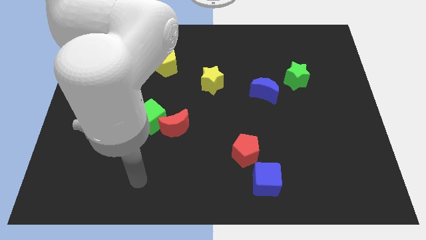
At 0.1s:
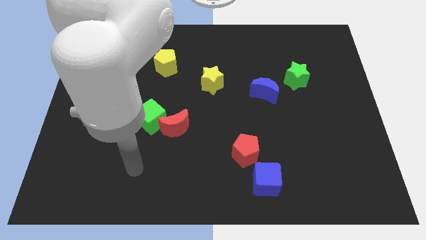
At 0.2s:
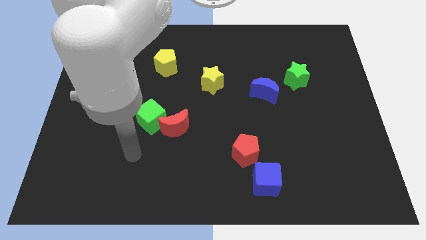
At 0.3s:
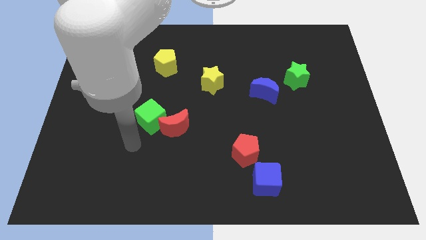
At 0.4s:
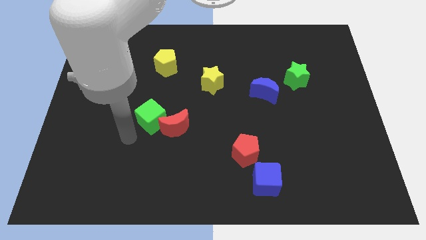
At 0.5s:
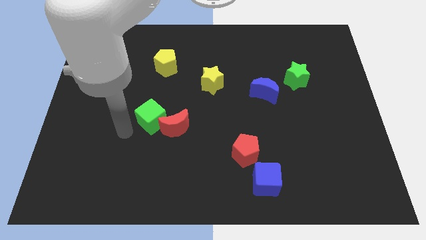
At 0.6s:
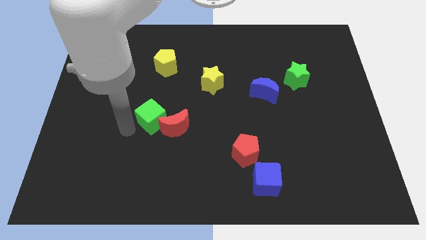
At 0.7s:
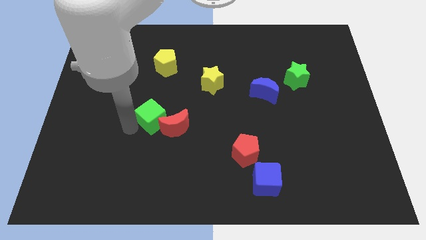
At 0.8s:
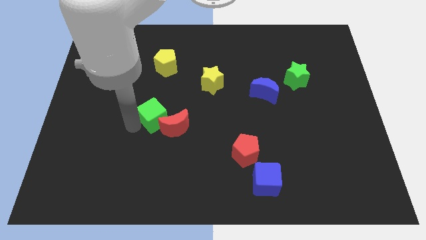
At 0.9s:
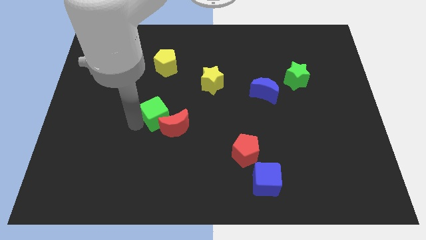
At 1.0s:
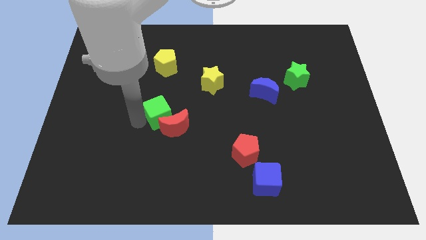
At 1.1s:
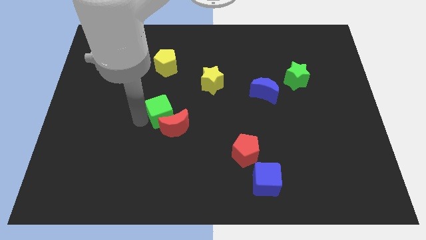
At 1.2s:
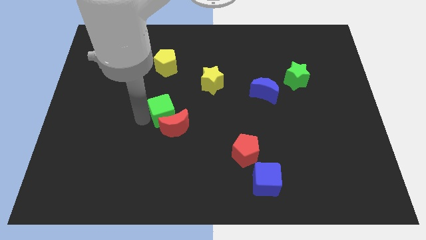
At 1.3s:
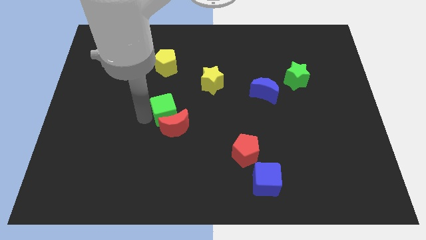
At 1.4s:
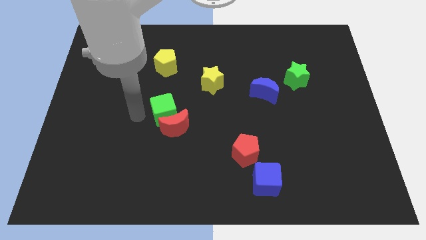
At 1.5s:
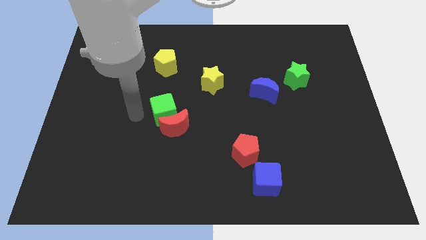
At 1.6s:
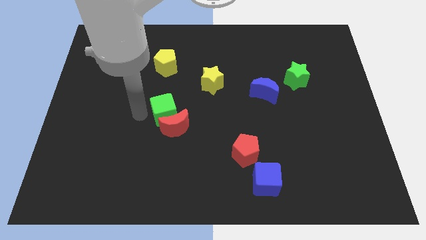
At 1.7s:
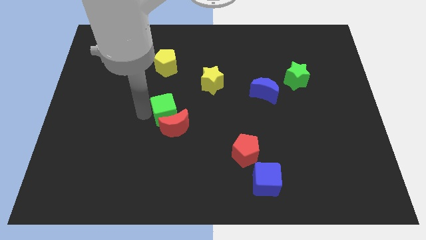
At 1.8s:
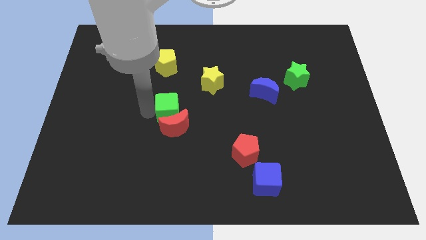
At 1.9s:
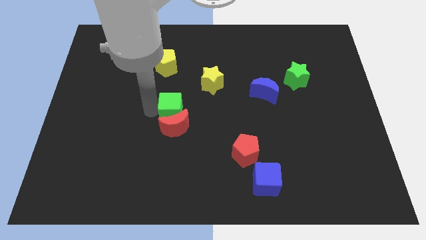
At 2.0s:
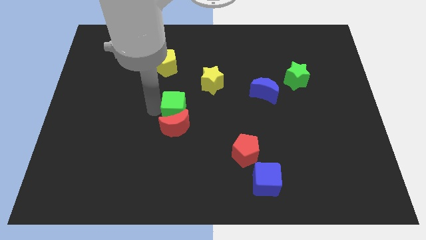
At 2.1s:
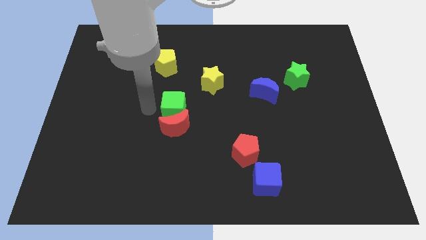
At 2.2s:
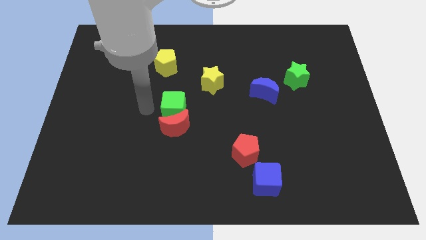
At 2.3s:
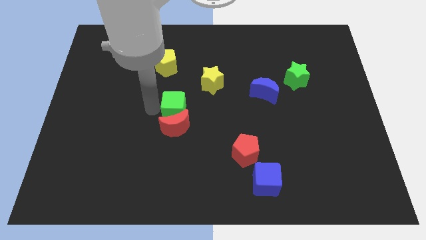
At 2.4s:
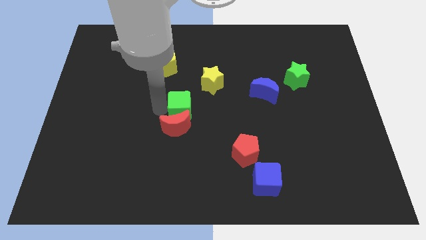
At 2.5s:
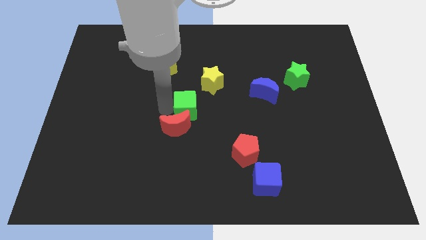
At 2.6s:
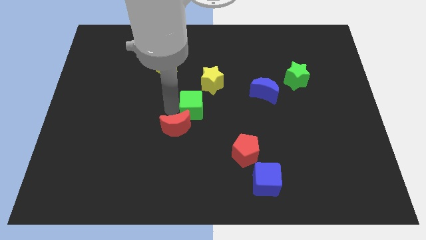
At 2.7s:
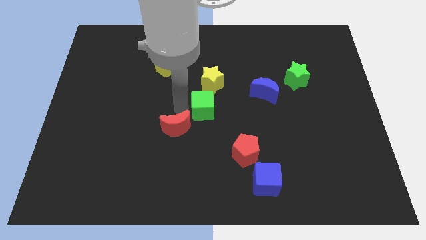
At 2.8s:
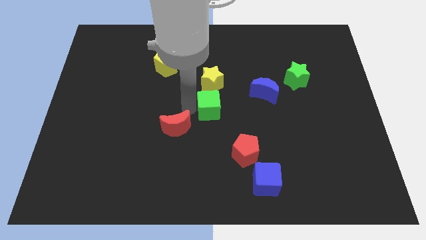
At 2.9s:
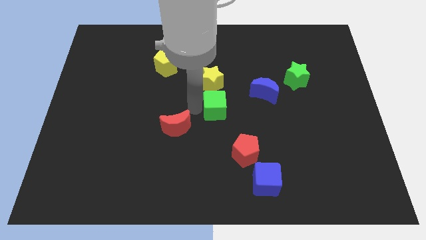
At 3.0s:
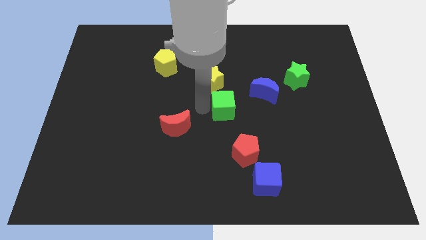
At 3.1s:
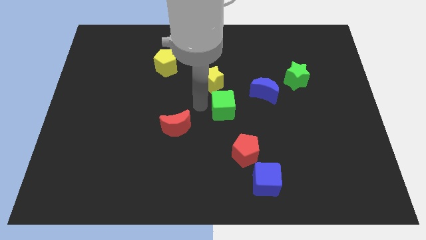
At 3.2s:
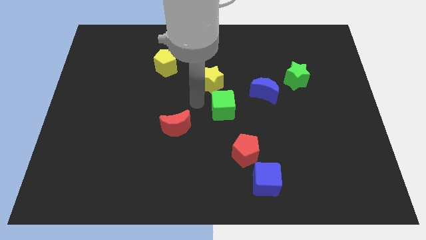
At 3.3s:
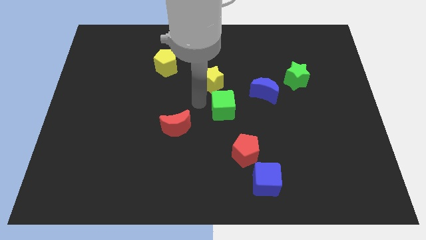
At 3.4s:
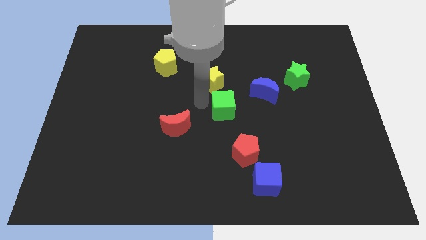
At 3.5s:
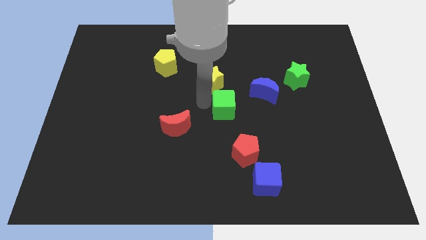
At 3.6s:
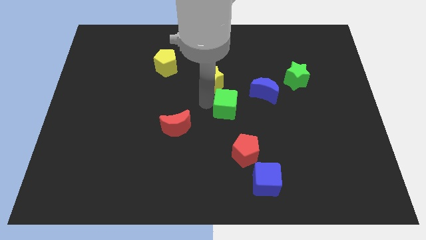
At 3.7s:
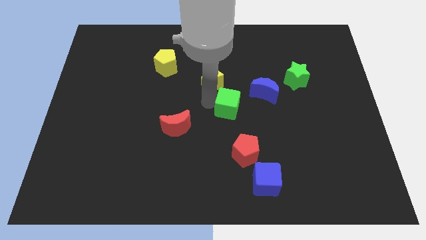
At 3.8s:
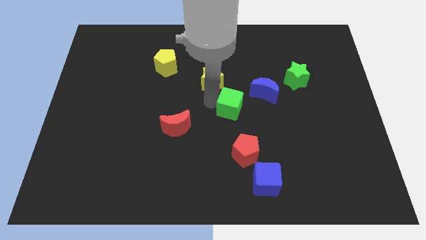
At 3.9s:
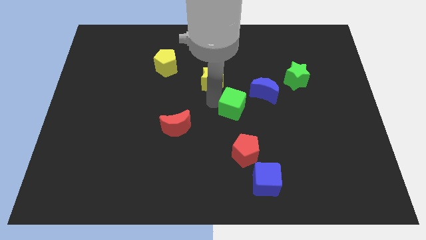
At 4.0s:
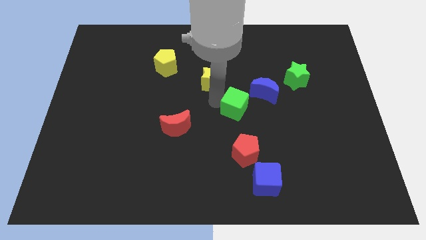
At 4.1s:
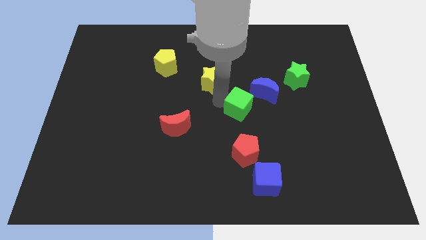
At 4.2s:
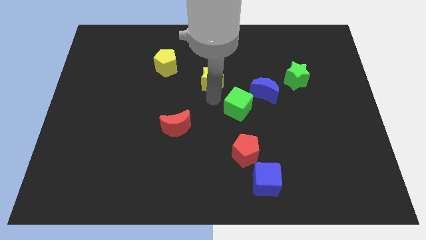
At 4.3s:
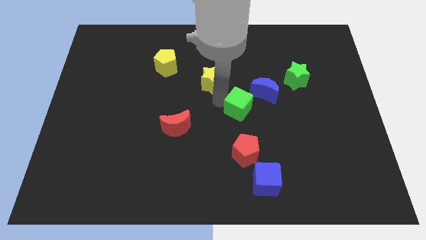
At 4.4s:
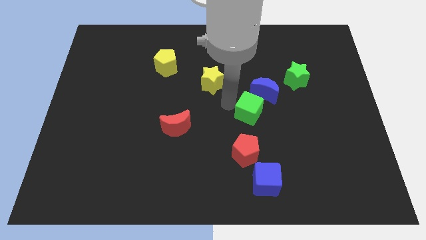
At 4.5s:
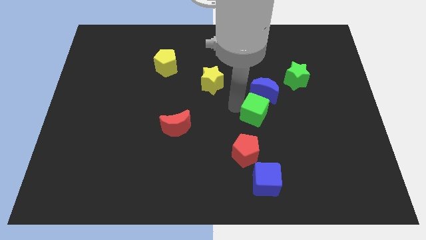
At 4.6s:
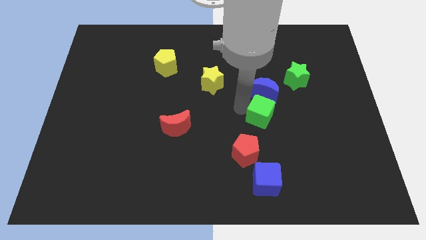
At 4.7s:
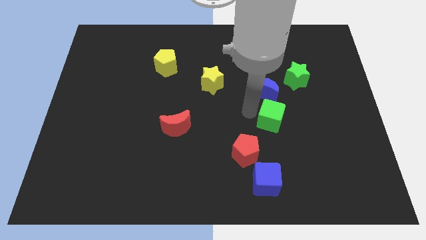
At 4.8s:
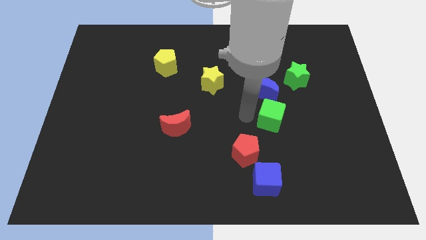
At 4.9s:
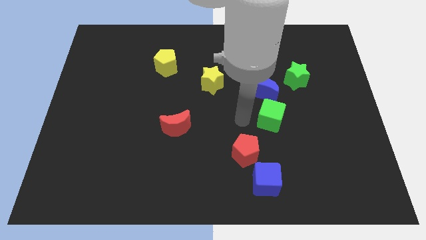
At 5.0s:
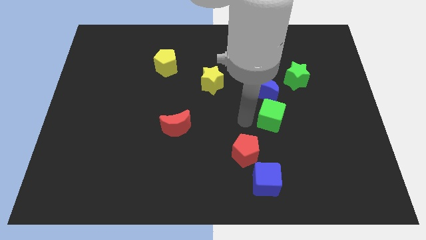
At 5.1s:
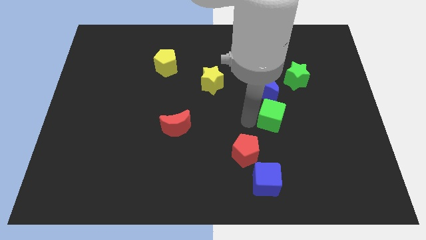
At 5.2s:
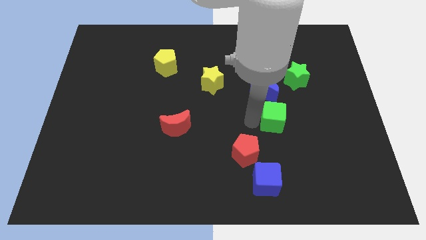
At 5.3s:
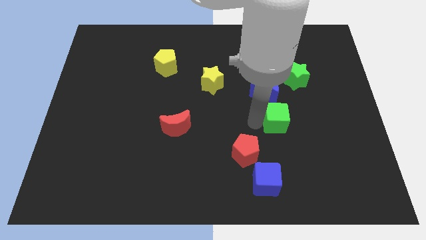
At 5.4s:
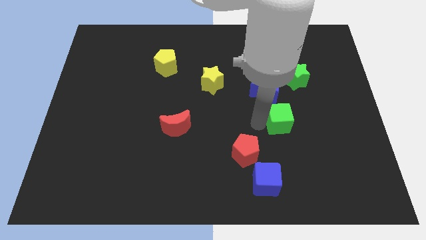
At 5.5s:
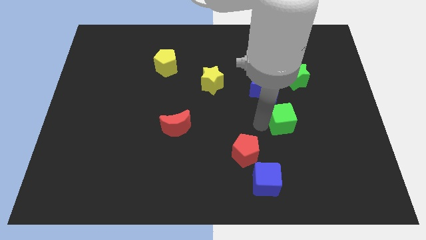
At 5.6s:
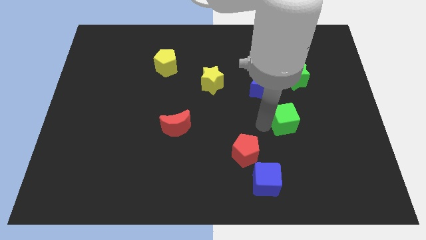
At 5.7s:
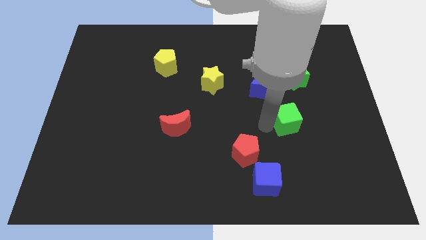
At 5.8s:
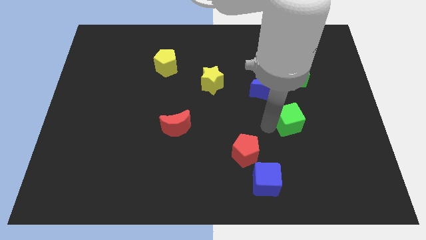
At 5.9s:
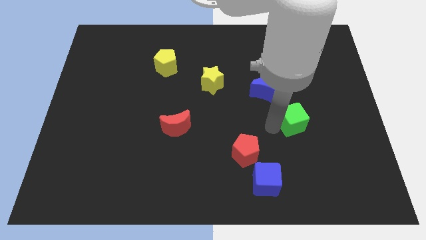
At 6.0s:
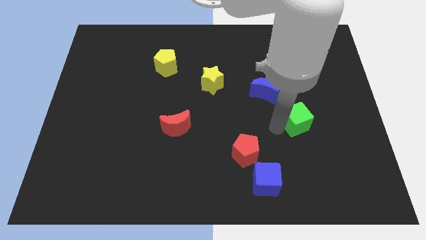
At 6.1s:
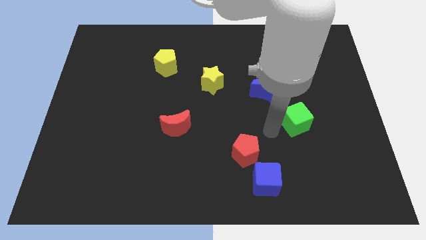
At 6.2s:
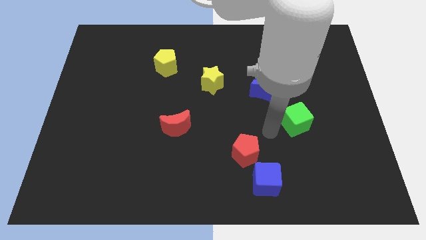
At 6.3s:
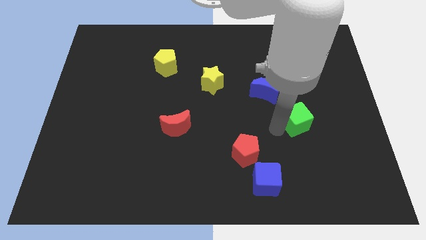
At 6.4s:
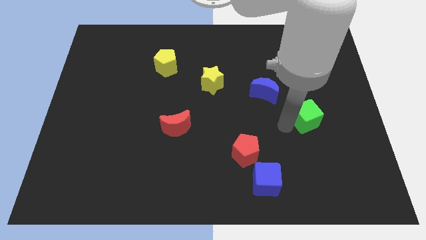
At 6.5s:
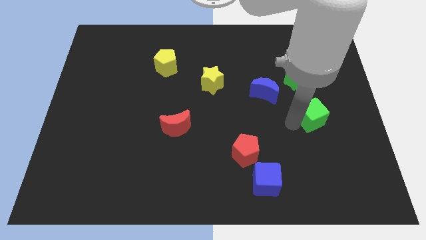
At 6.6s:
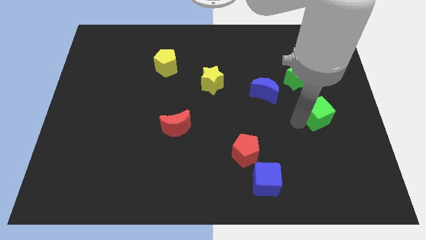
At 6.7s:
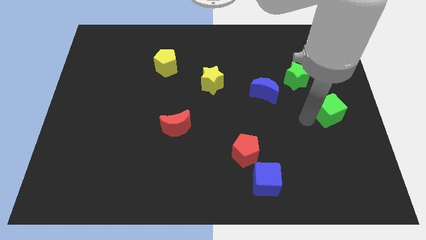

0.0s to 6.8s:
move the green cube to the center right

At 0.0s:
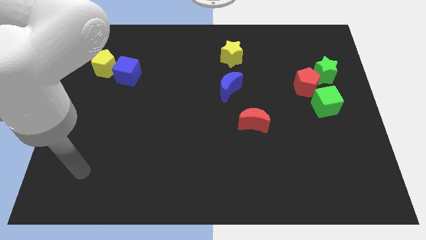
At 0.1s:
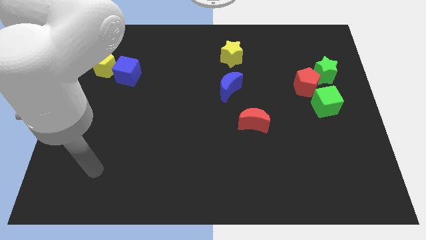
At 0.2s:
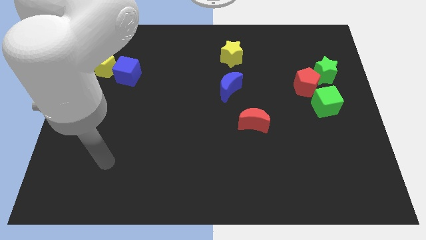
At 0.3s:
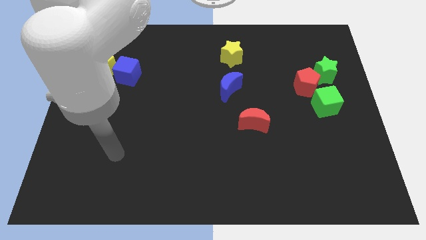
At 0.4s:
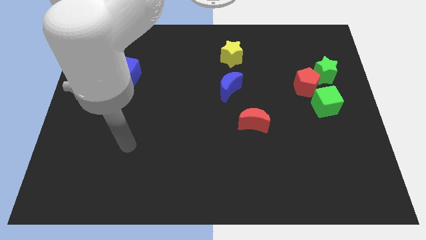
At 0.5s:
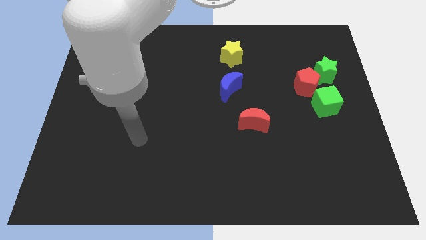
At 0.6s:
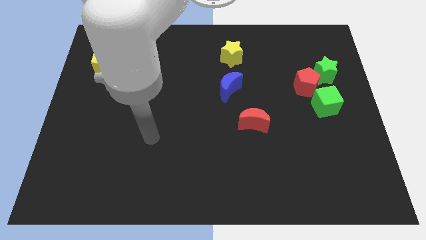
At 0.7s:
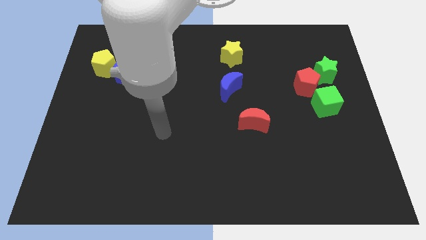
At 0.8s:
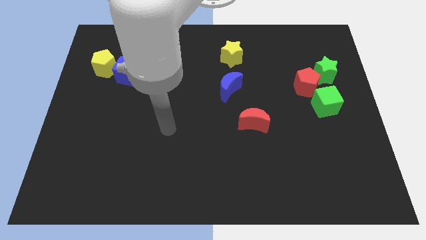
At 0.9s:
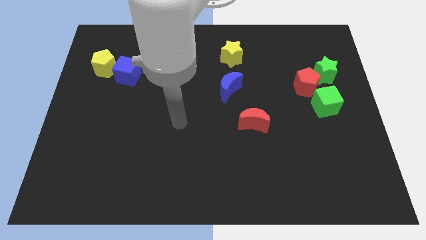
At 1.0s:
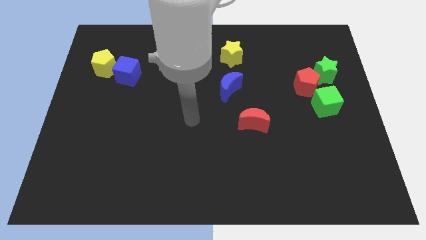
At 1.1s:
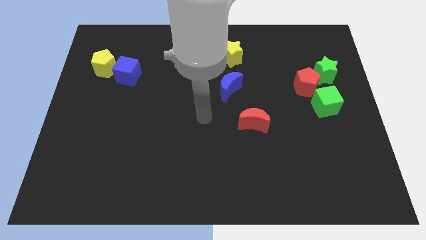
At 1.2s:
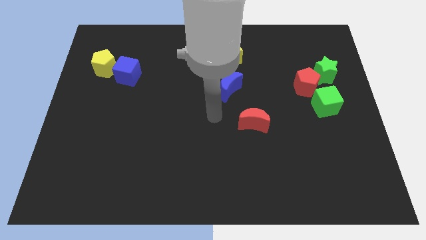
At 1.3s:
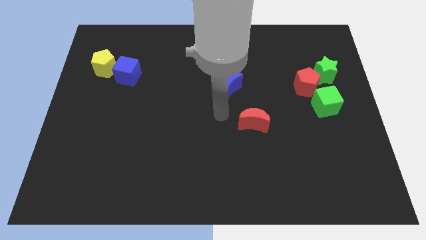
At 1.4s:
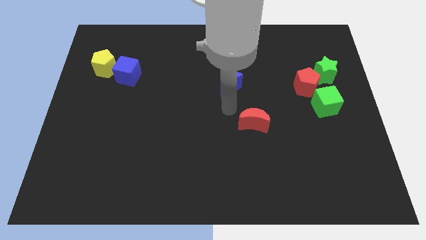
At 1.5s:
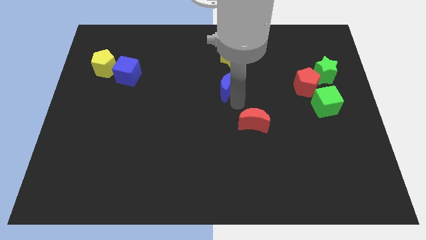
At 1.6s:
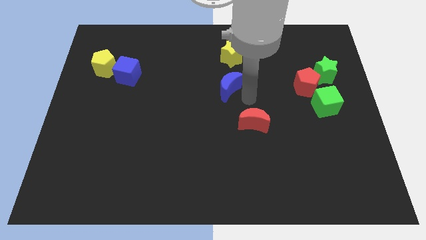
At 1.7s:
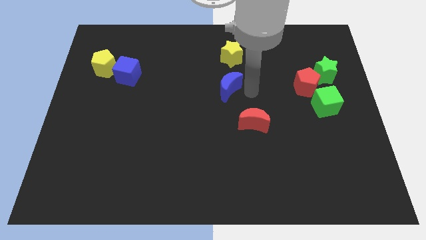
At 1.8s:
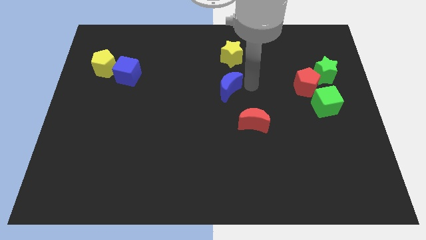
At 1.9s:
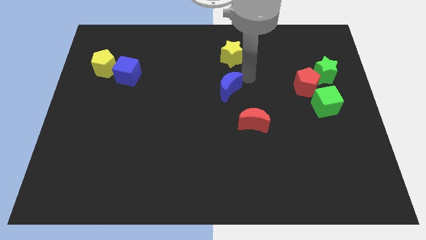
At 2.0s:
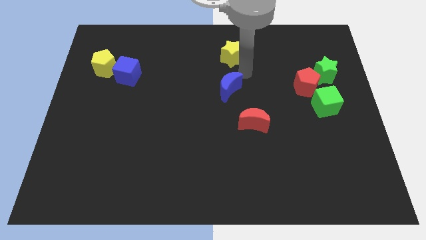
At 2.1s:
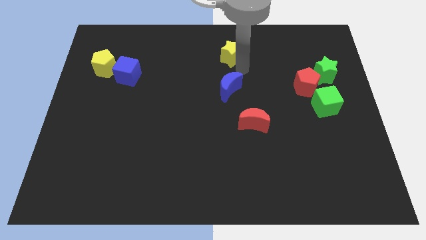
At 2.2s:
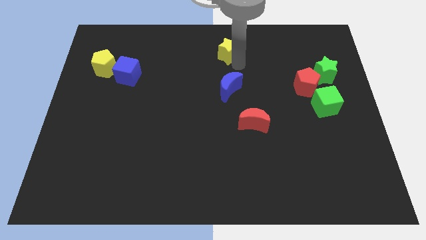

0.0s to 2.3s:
move the yellow star to the top
